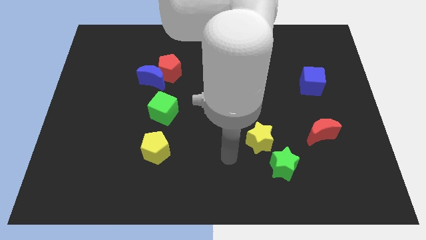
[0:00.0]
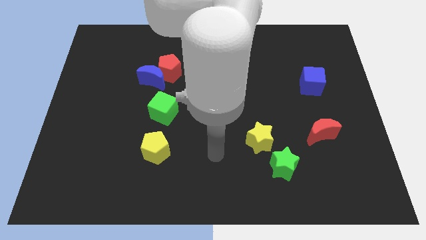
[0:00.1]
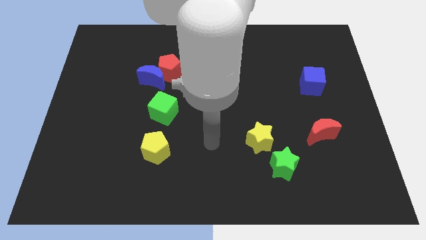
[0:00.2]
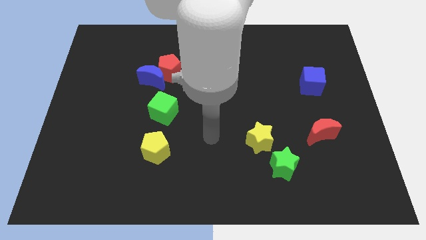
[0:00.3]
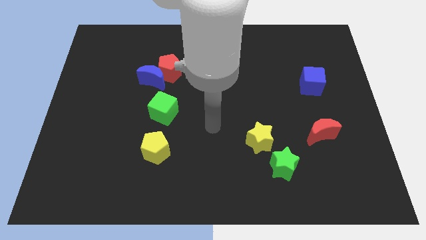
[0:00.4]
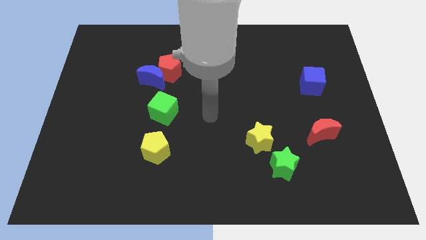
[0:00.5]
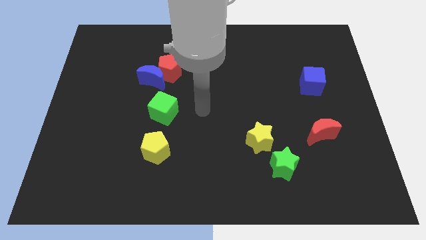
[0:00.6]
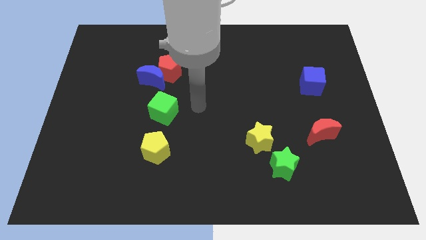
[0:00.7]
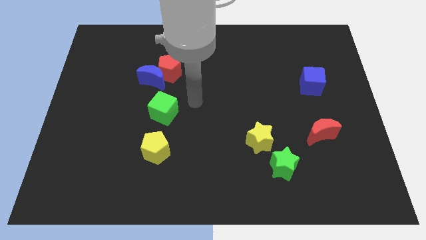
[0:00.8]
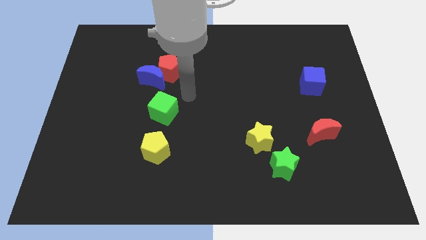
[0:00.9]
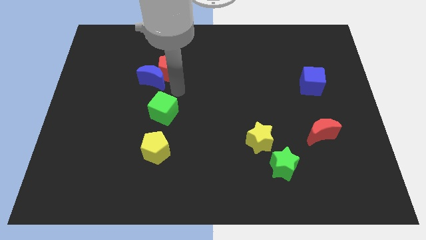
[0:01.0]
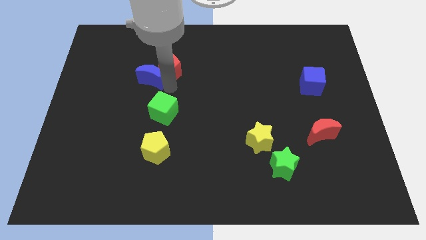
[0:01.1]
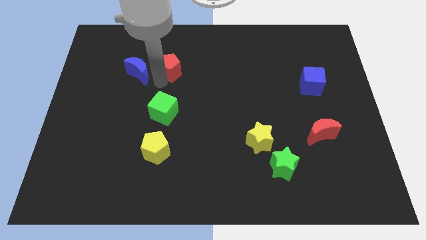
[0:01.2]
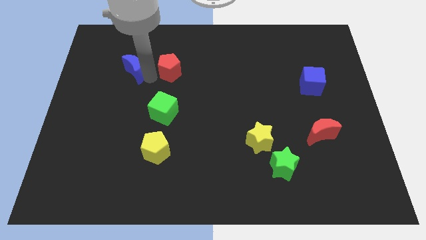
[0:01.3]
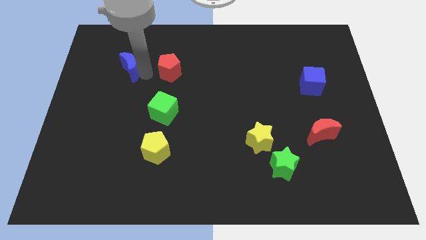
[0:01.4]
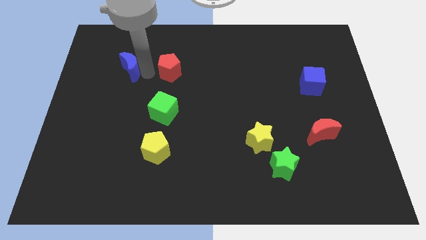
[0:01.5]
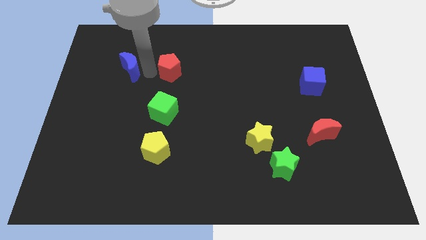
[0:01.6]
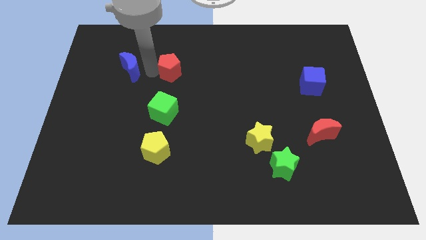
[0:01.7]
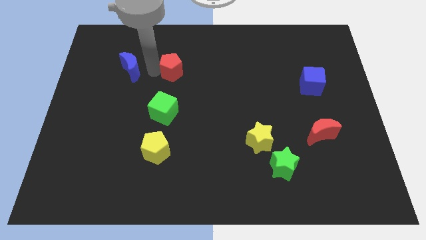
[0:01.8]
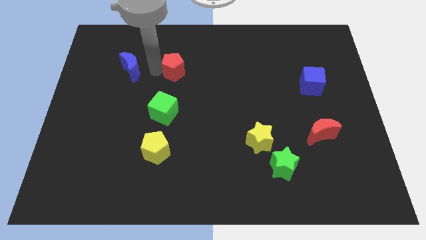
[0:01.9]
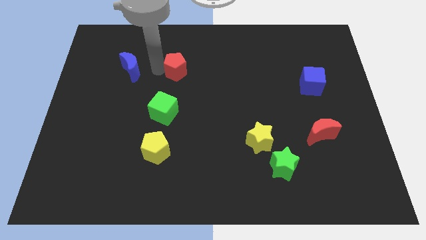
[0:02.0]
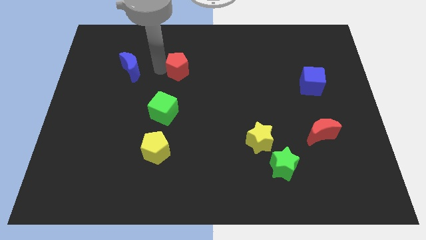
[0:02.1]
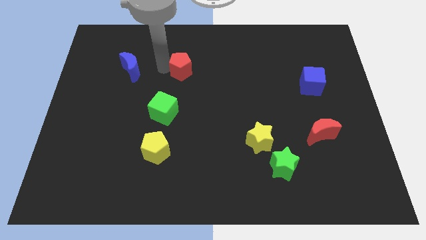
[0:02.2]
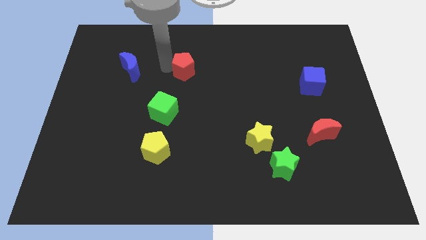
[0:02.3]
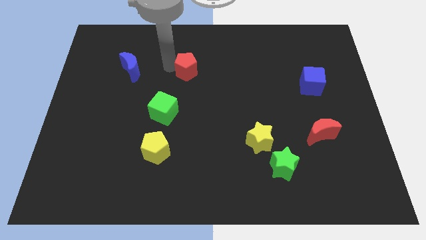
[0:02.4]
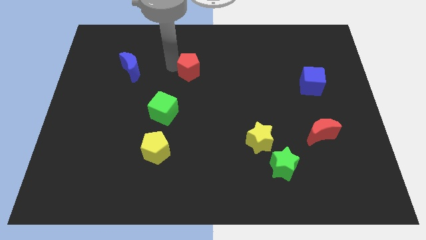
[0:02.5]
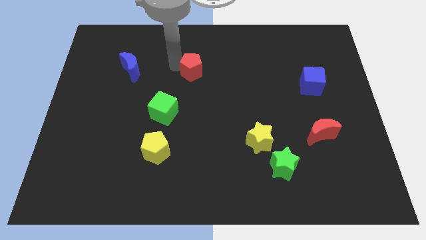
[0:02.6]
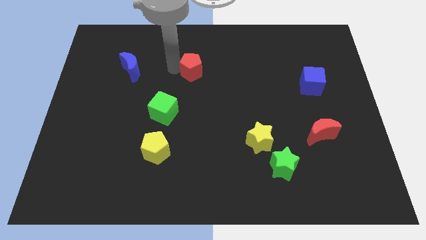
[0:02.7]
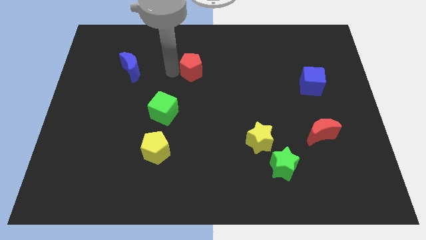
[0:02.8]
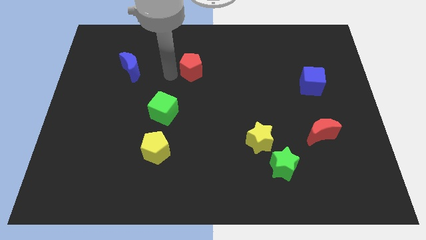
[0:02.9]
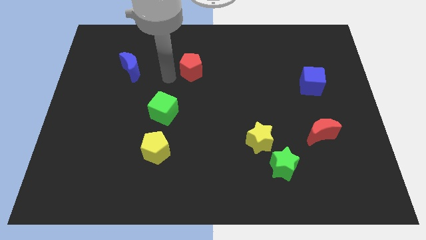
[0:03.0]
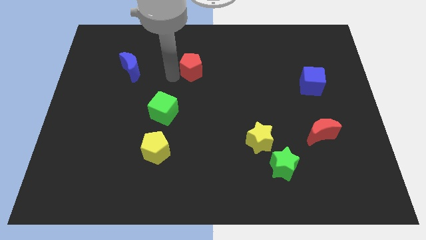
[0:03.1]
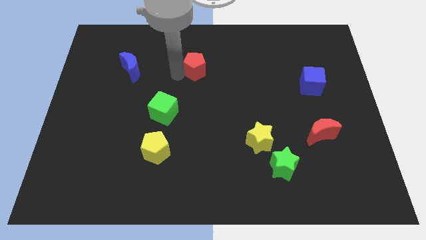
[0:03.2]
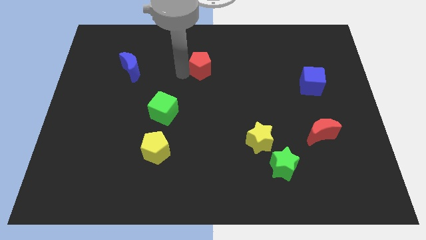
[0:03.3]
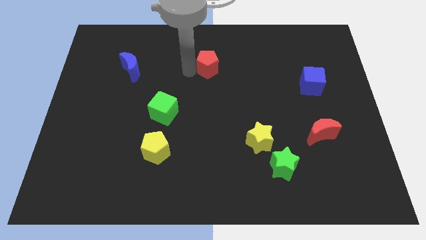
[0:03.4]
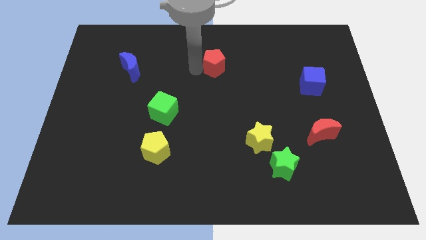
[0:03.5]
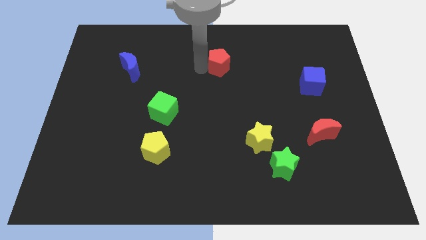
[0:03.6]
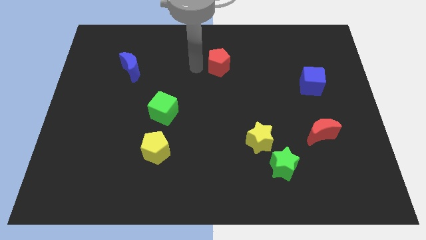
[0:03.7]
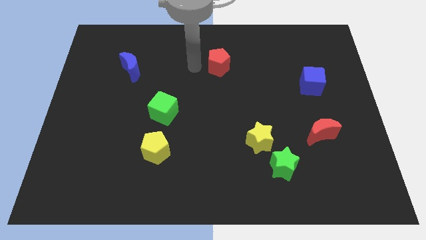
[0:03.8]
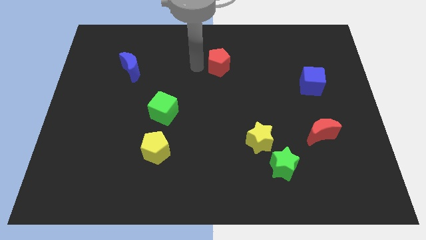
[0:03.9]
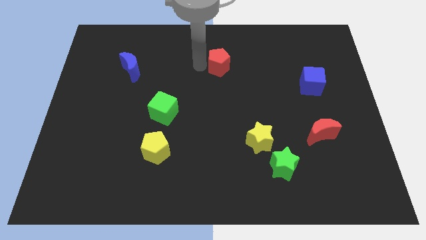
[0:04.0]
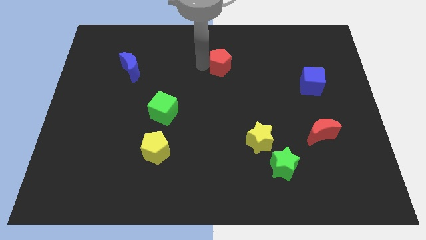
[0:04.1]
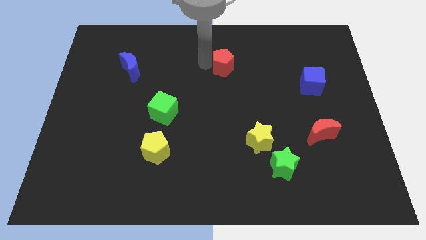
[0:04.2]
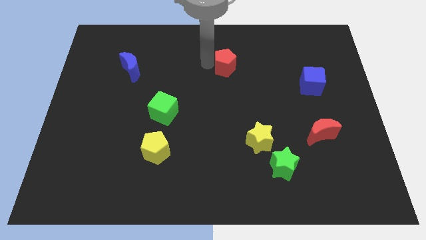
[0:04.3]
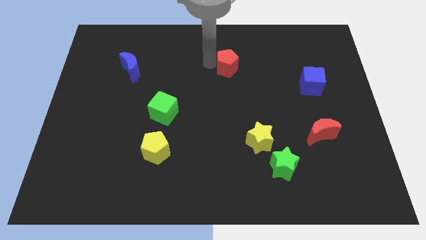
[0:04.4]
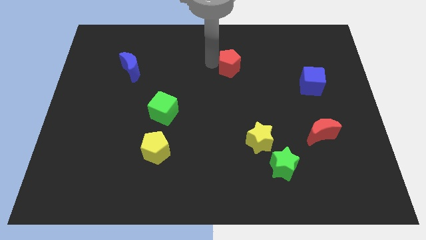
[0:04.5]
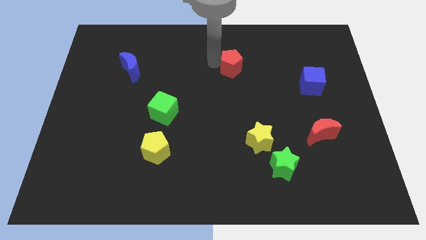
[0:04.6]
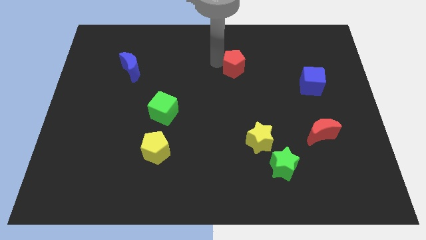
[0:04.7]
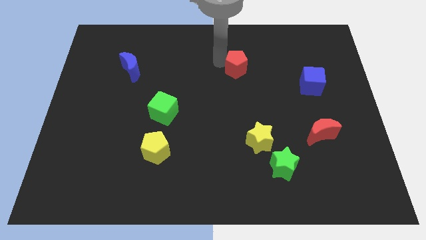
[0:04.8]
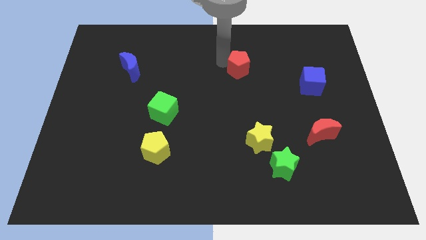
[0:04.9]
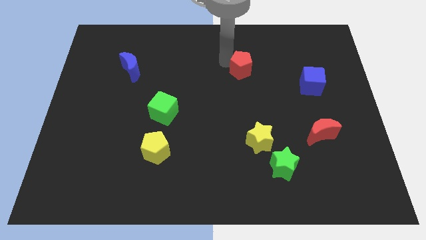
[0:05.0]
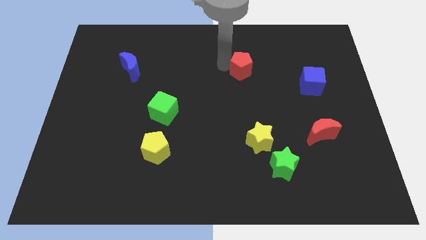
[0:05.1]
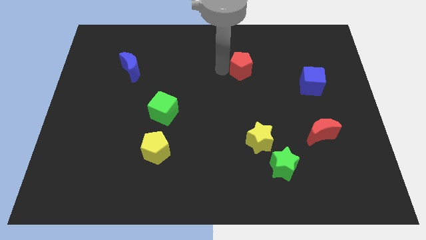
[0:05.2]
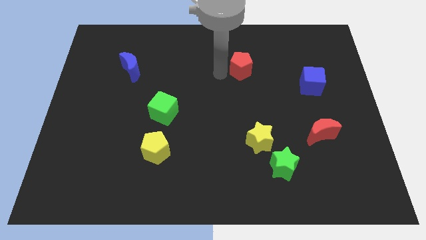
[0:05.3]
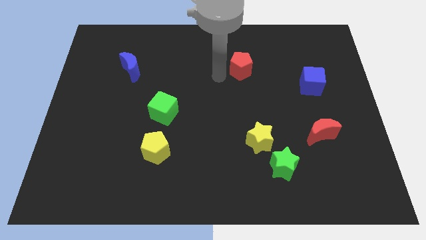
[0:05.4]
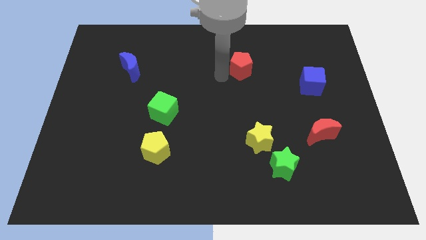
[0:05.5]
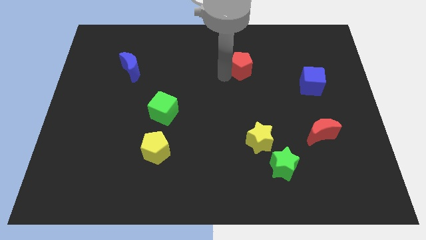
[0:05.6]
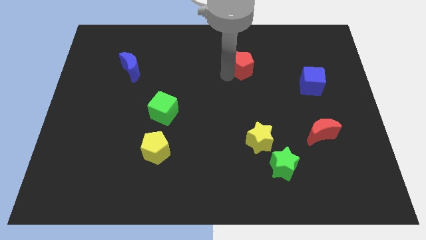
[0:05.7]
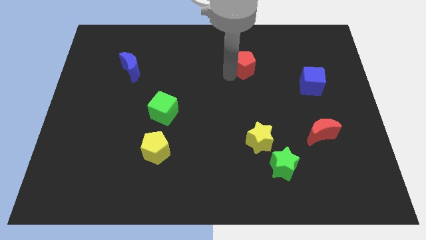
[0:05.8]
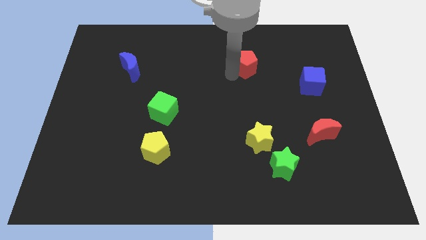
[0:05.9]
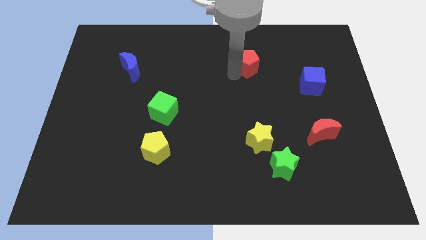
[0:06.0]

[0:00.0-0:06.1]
push the red pentagon right

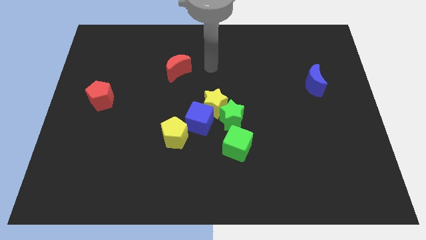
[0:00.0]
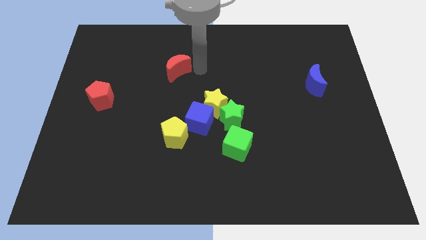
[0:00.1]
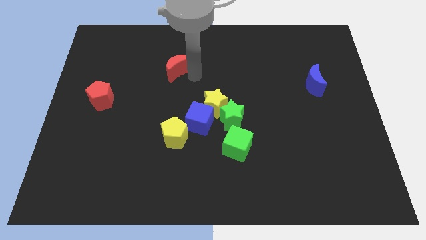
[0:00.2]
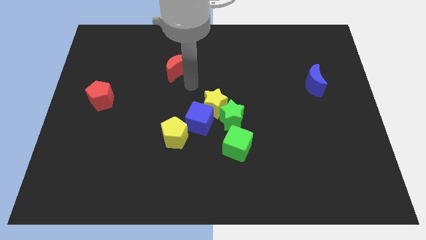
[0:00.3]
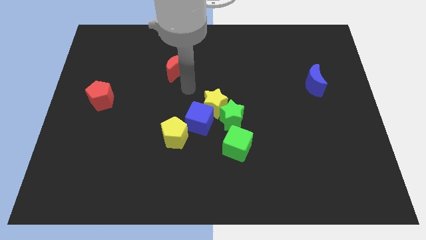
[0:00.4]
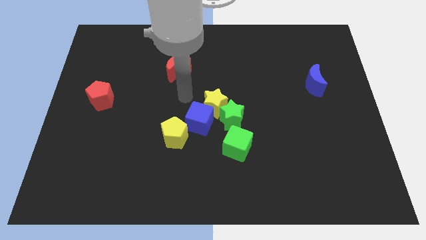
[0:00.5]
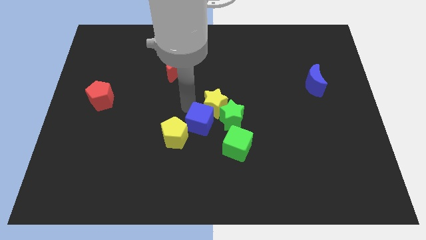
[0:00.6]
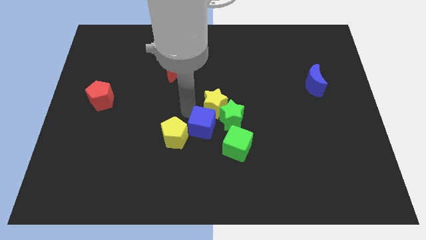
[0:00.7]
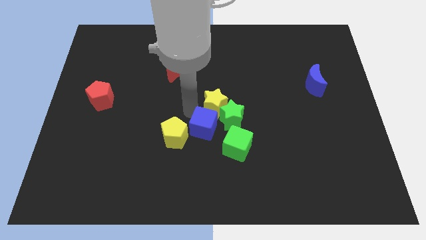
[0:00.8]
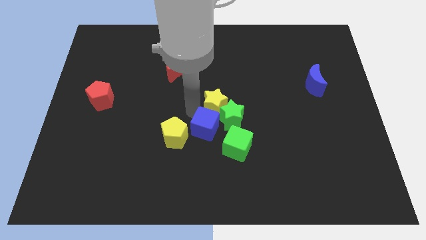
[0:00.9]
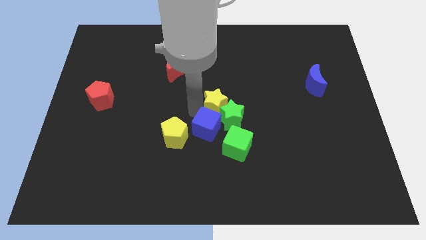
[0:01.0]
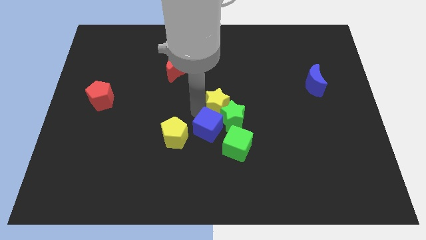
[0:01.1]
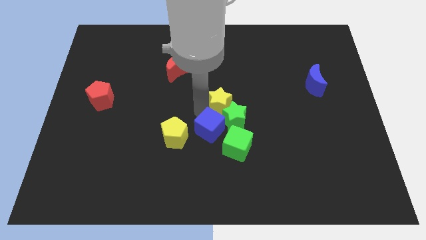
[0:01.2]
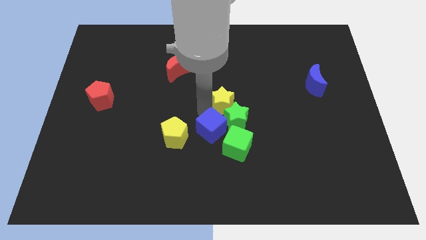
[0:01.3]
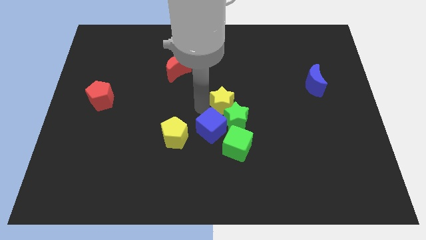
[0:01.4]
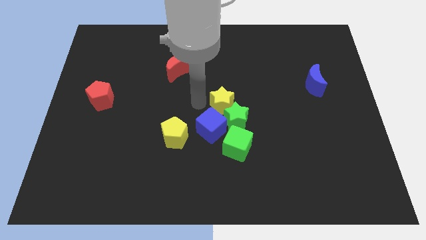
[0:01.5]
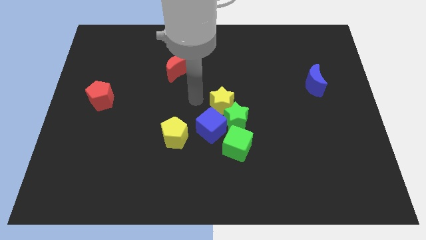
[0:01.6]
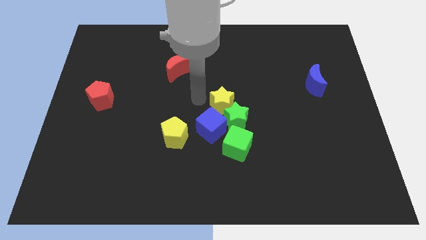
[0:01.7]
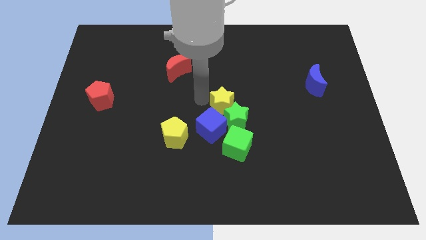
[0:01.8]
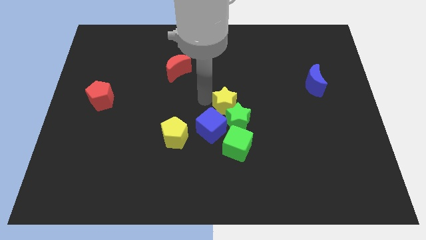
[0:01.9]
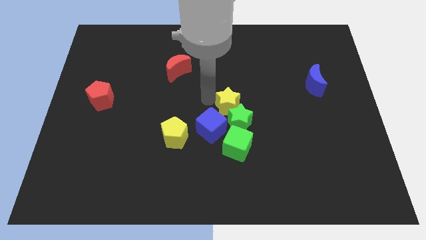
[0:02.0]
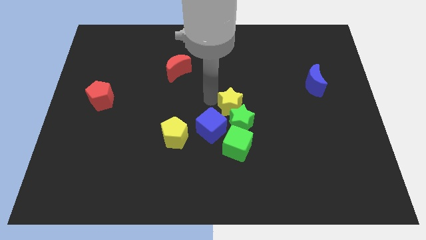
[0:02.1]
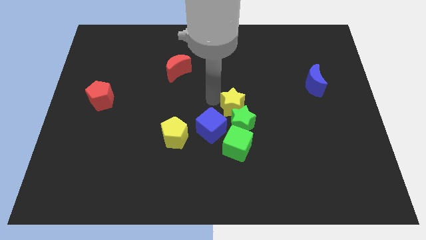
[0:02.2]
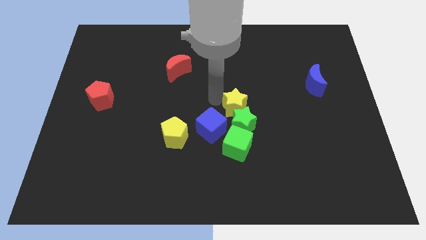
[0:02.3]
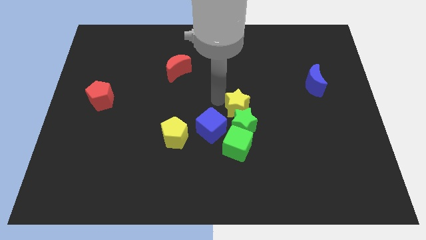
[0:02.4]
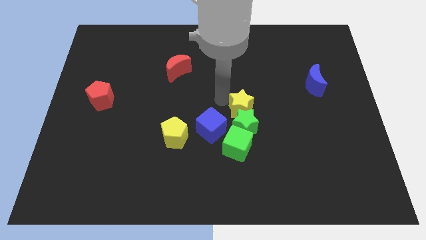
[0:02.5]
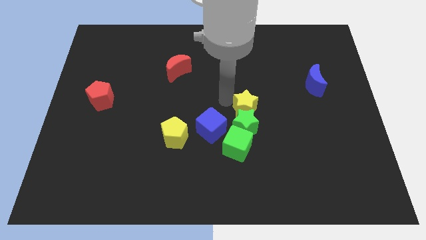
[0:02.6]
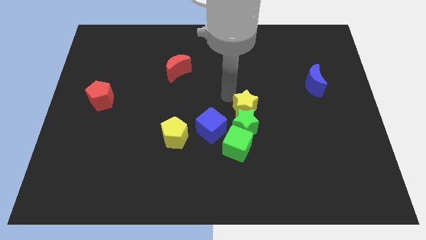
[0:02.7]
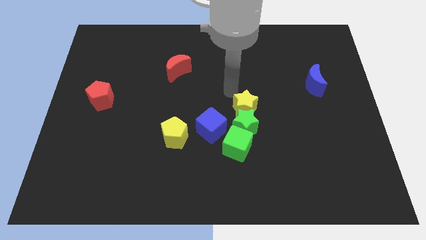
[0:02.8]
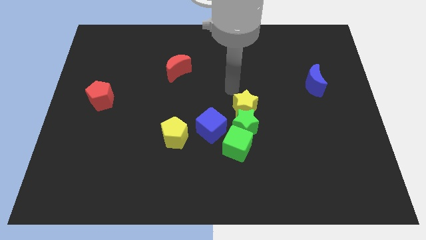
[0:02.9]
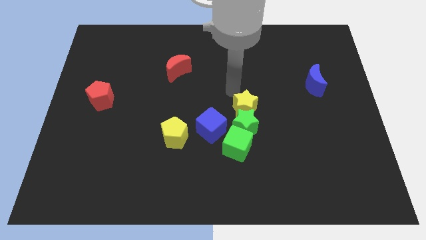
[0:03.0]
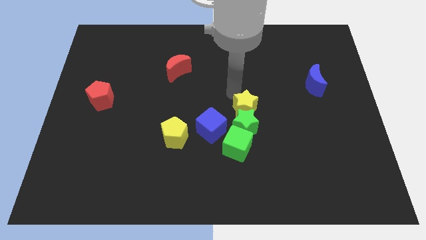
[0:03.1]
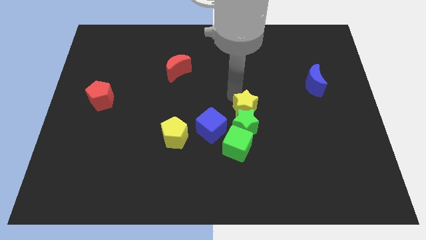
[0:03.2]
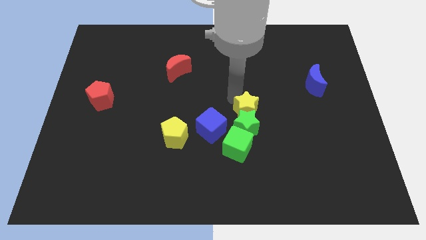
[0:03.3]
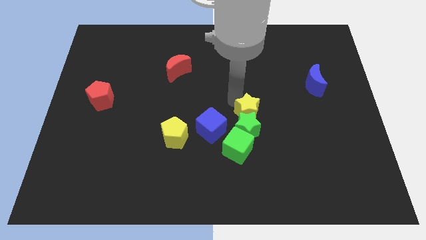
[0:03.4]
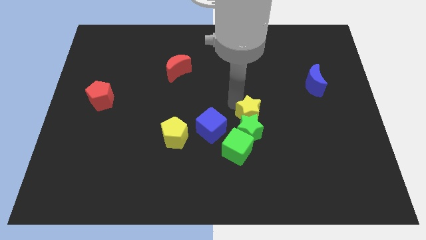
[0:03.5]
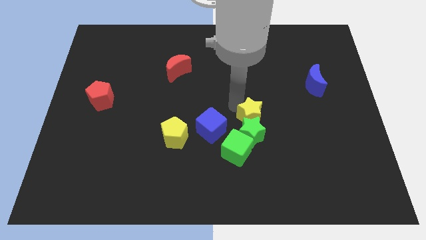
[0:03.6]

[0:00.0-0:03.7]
move the yellow star diagonally downwards and to the right somewhat
